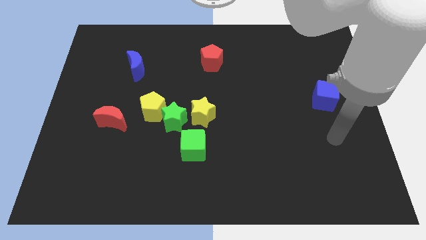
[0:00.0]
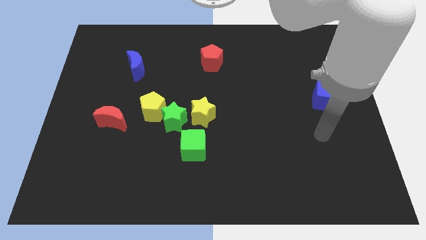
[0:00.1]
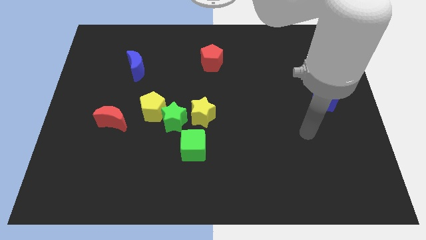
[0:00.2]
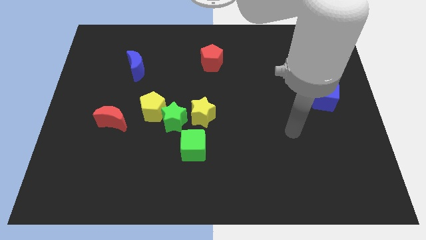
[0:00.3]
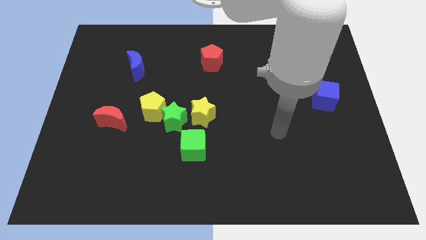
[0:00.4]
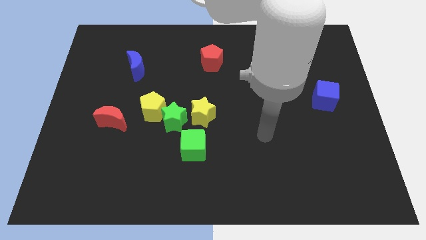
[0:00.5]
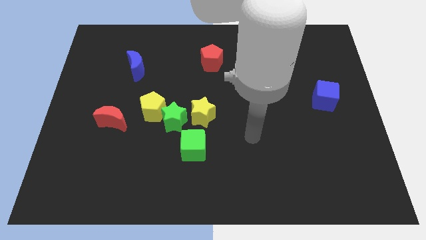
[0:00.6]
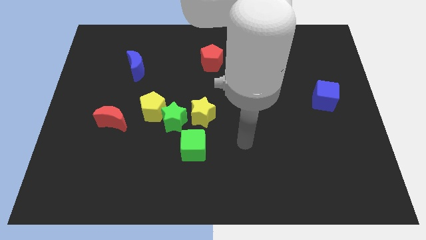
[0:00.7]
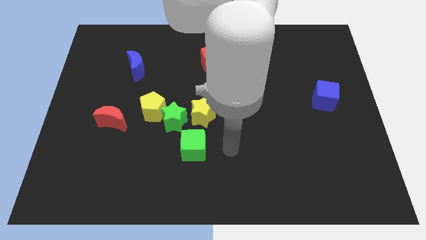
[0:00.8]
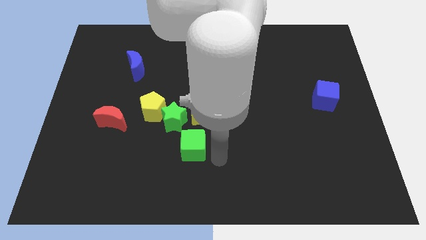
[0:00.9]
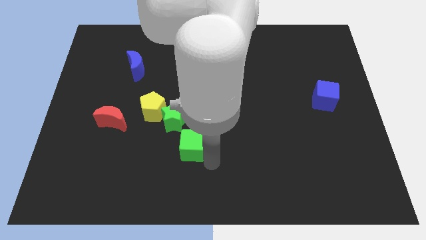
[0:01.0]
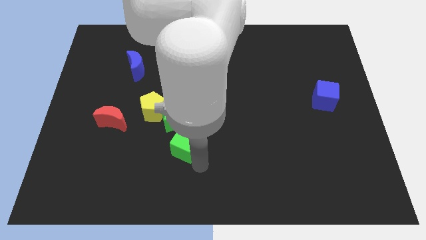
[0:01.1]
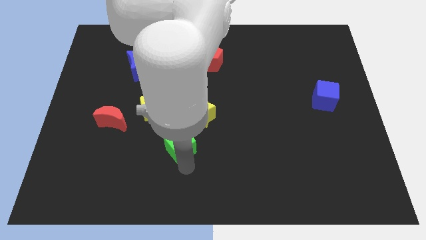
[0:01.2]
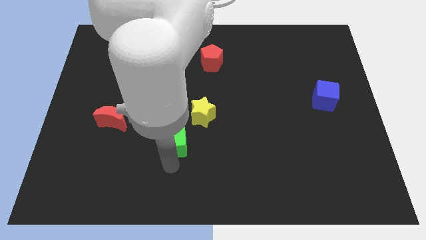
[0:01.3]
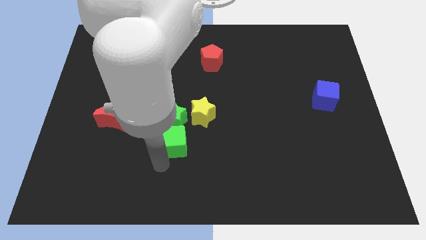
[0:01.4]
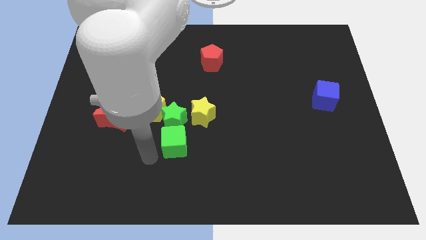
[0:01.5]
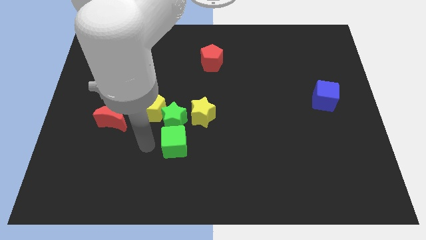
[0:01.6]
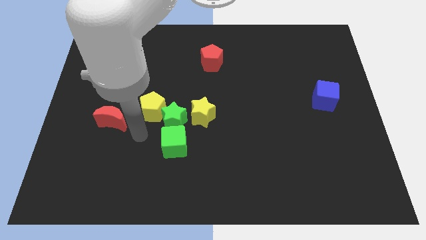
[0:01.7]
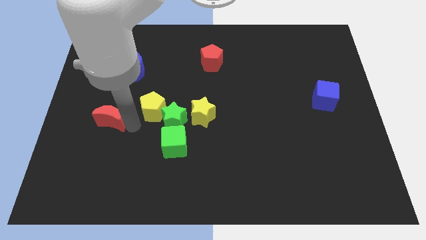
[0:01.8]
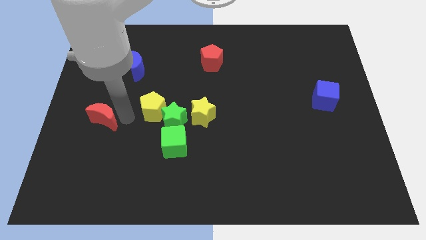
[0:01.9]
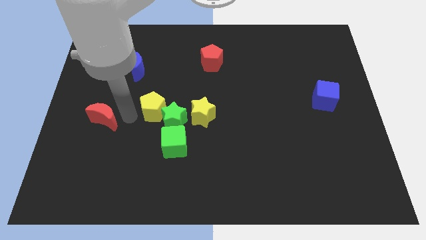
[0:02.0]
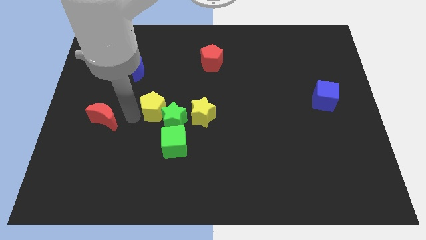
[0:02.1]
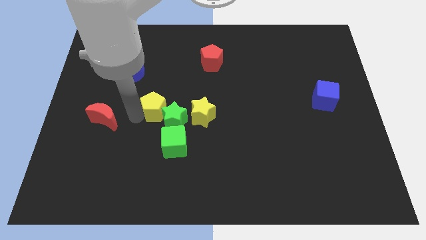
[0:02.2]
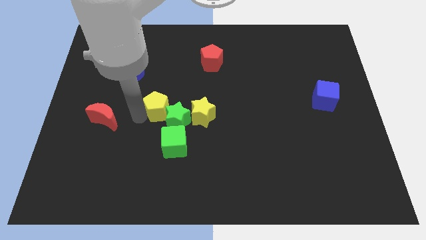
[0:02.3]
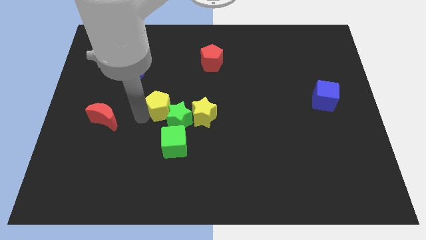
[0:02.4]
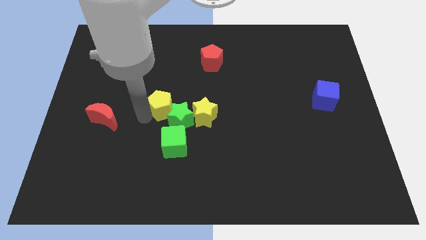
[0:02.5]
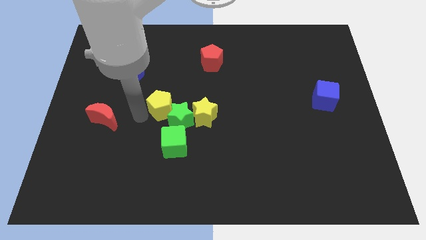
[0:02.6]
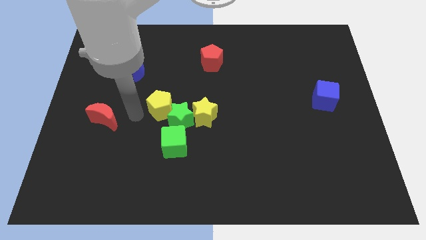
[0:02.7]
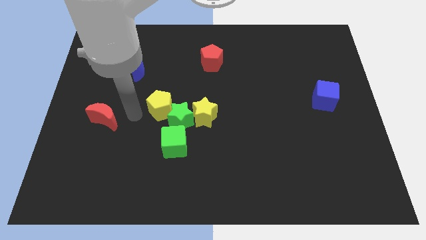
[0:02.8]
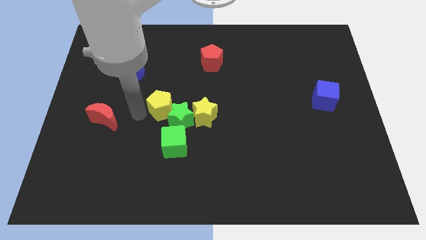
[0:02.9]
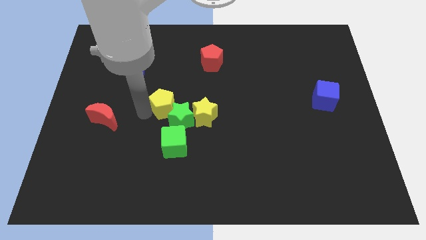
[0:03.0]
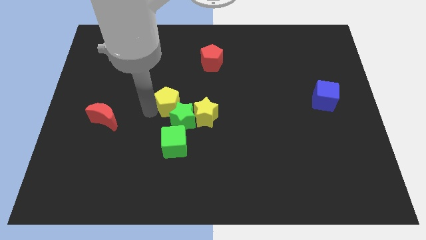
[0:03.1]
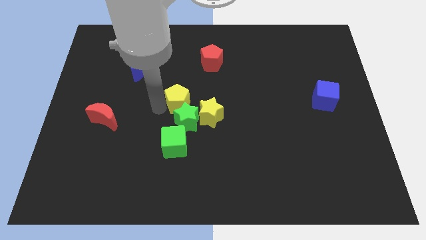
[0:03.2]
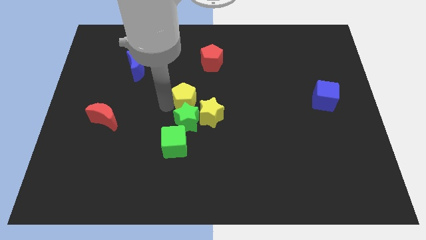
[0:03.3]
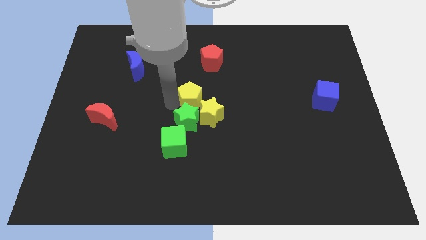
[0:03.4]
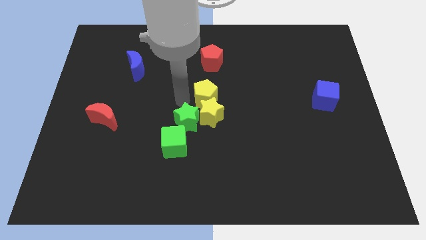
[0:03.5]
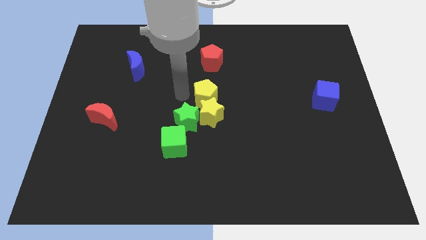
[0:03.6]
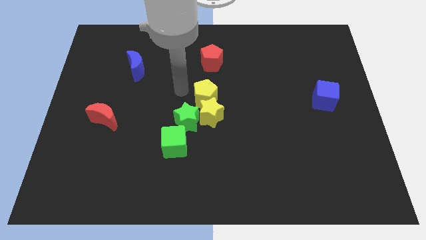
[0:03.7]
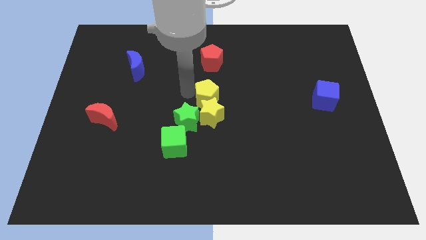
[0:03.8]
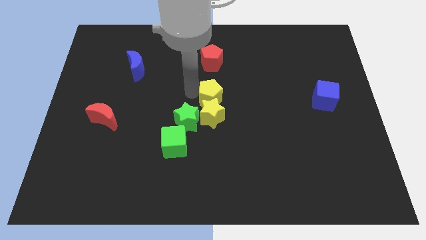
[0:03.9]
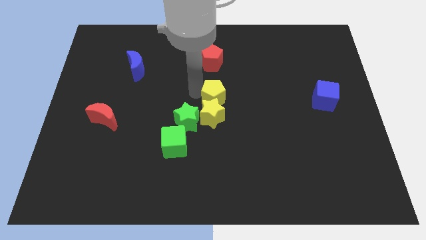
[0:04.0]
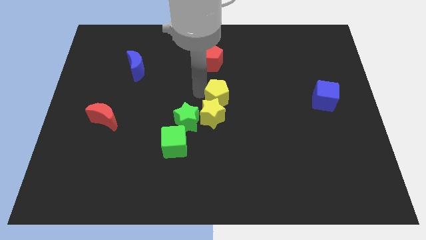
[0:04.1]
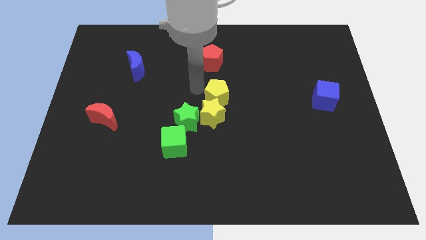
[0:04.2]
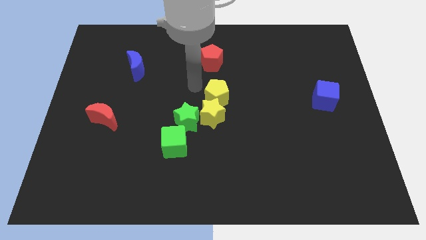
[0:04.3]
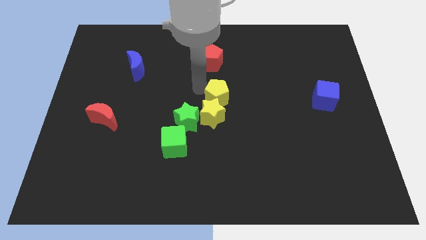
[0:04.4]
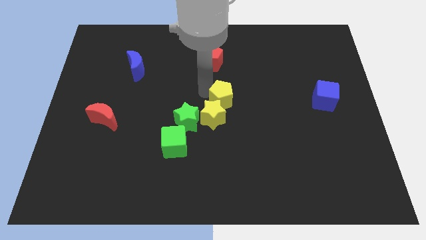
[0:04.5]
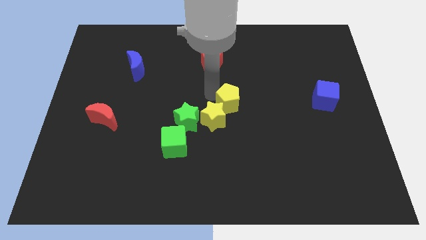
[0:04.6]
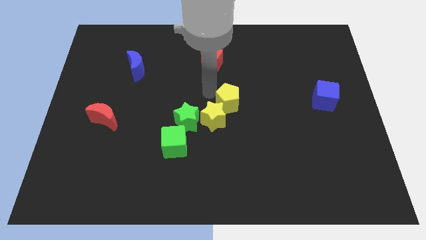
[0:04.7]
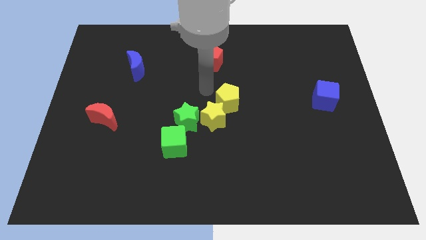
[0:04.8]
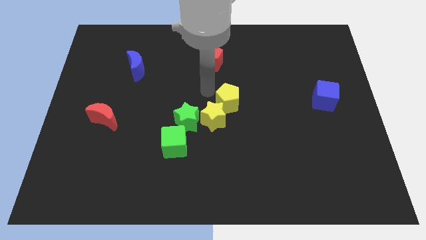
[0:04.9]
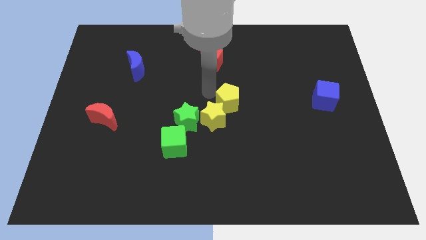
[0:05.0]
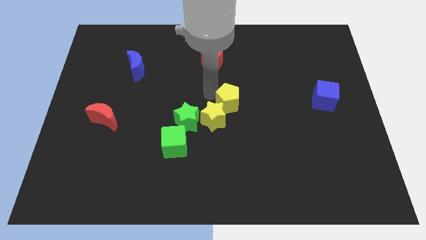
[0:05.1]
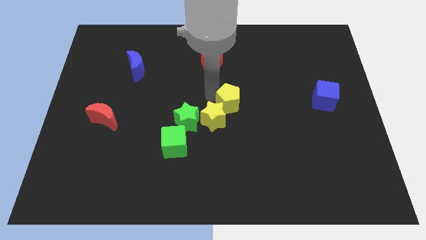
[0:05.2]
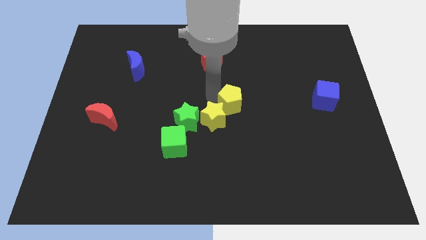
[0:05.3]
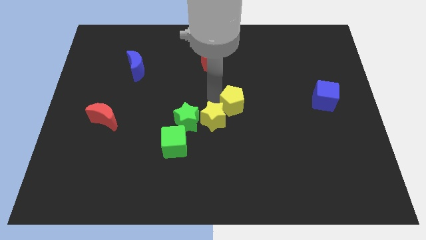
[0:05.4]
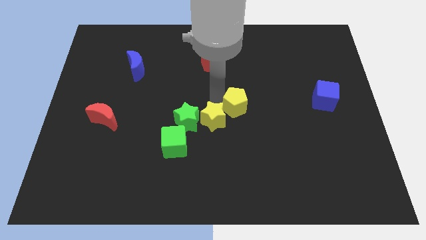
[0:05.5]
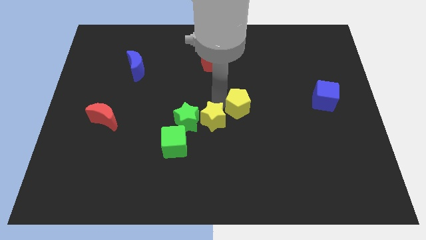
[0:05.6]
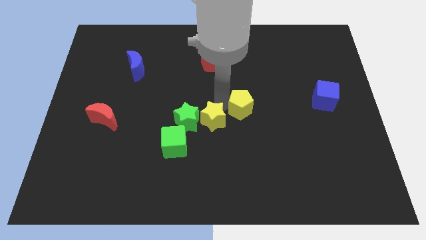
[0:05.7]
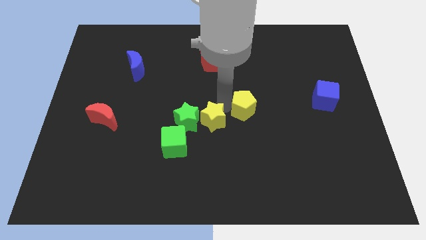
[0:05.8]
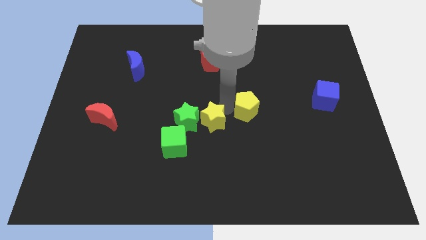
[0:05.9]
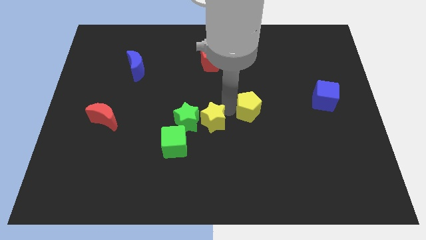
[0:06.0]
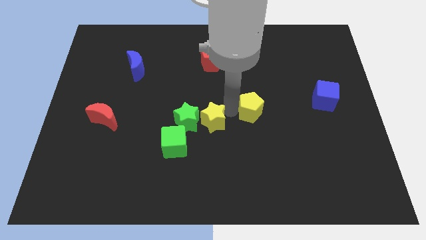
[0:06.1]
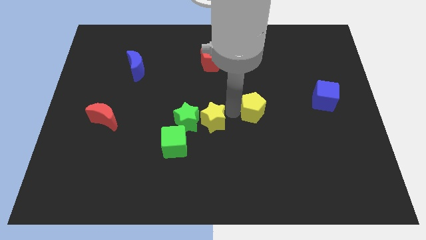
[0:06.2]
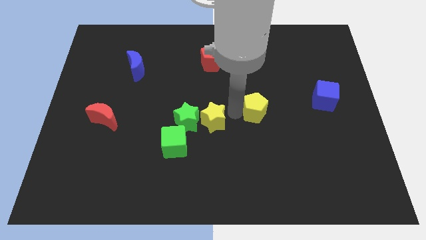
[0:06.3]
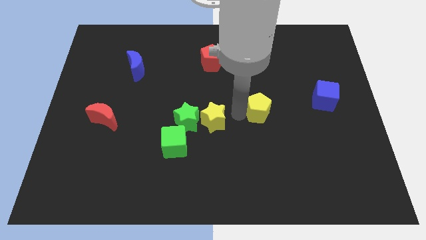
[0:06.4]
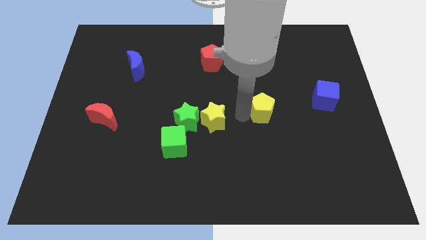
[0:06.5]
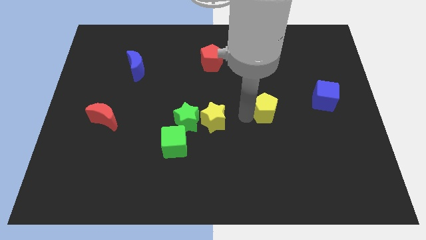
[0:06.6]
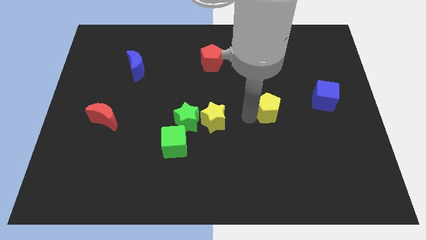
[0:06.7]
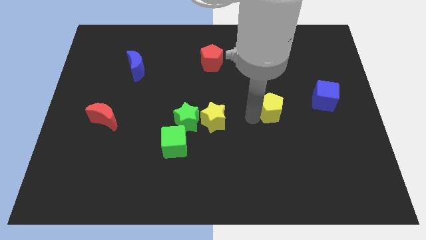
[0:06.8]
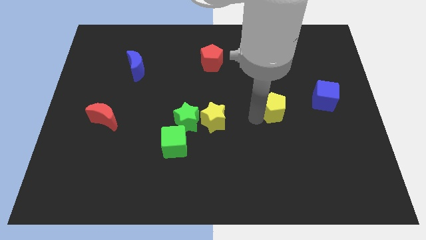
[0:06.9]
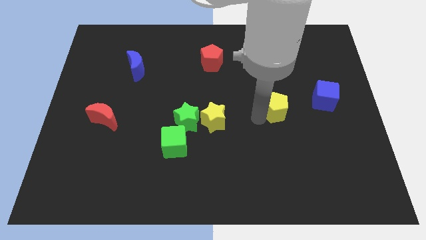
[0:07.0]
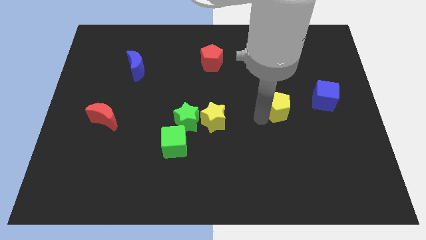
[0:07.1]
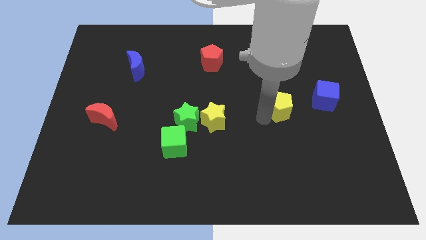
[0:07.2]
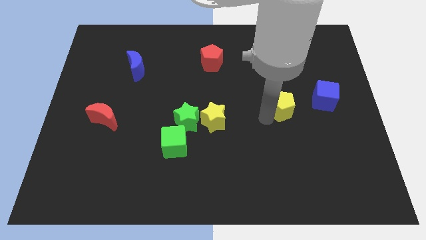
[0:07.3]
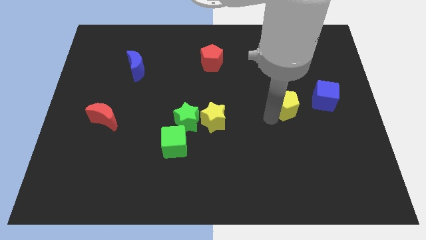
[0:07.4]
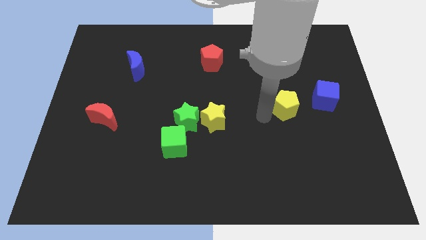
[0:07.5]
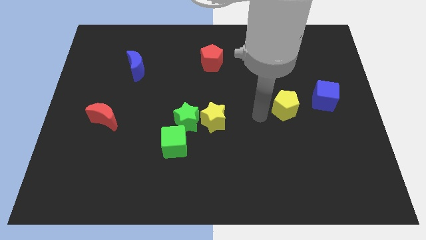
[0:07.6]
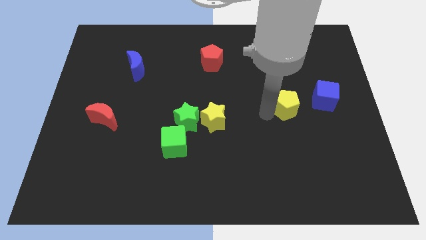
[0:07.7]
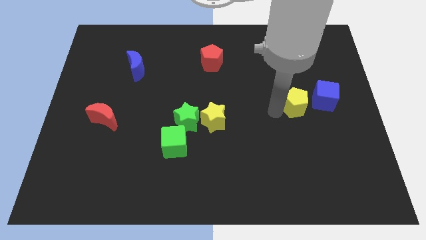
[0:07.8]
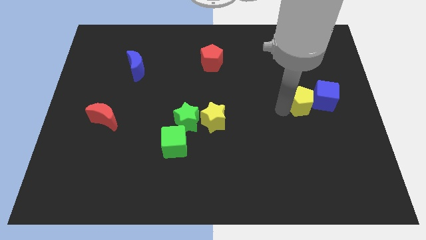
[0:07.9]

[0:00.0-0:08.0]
push the yellow pentagon towards the blue cube
